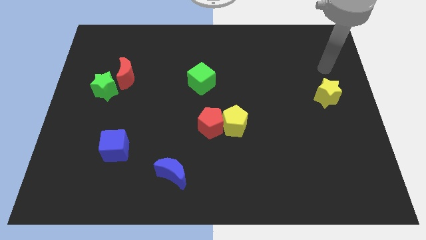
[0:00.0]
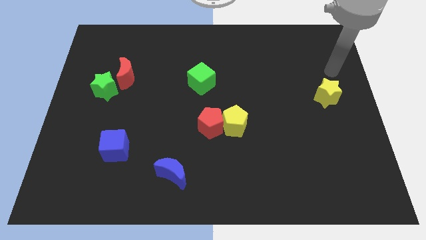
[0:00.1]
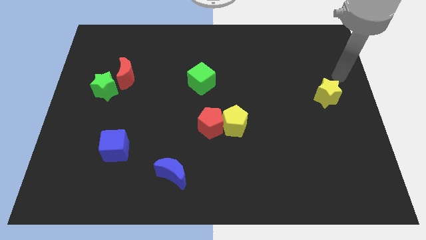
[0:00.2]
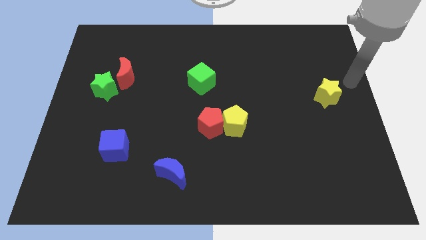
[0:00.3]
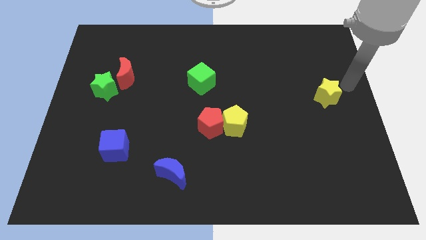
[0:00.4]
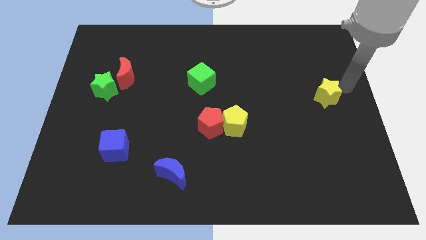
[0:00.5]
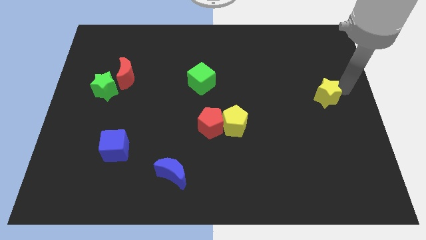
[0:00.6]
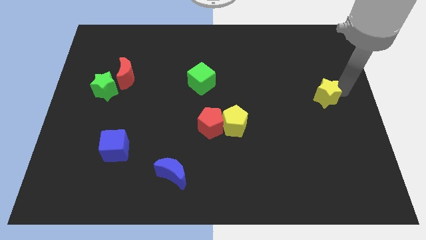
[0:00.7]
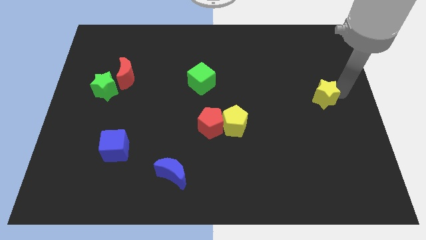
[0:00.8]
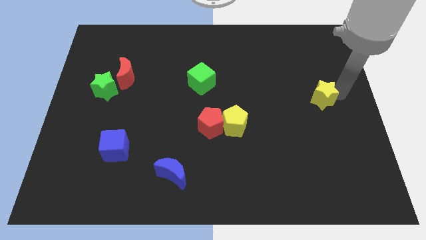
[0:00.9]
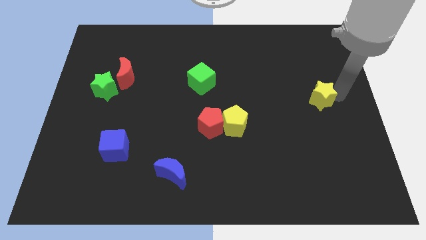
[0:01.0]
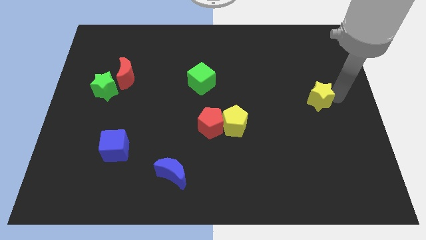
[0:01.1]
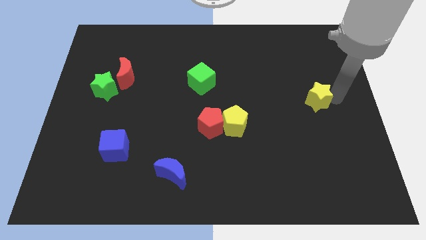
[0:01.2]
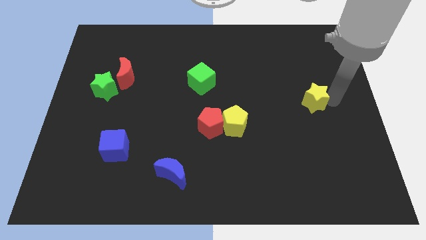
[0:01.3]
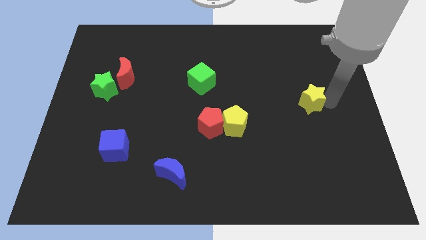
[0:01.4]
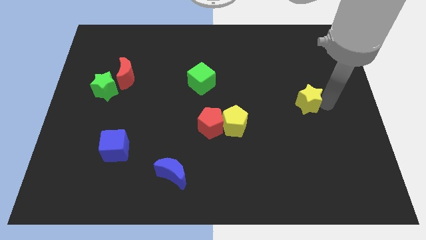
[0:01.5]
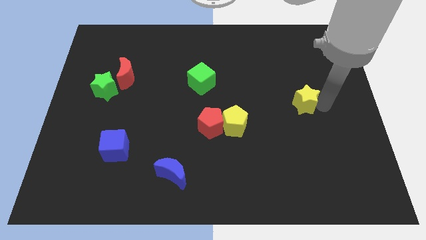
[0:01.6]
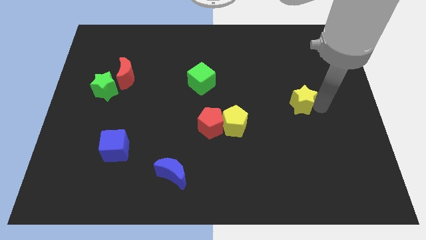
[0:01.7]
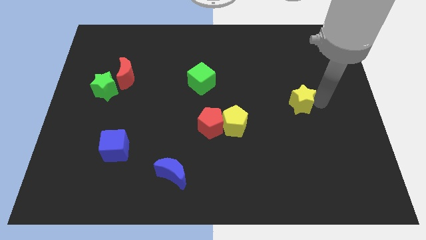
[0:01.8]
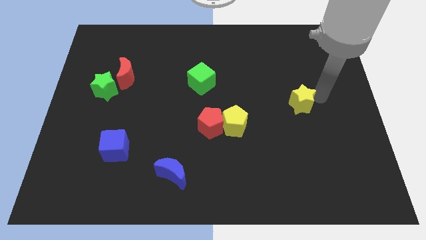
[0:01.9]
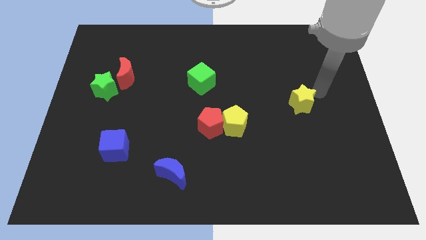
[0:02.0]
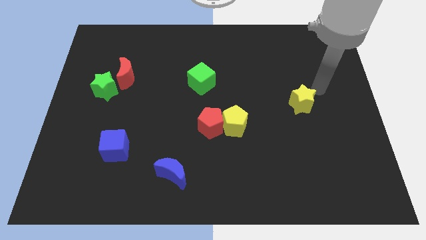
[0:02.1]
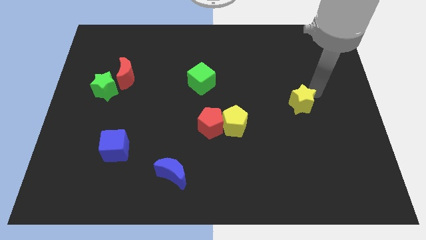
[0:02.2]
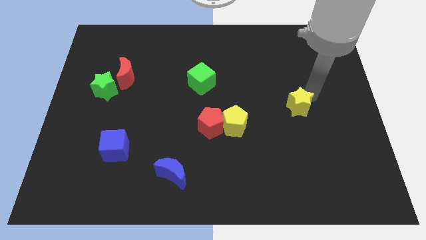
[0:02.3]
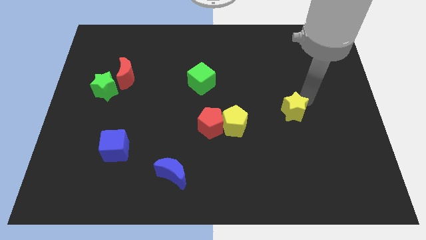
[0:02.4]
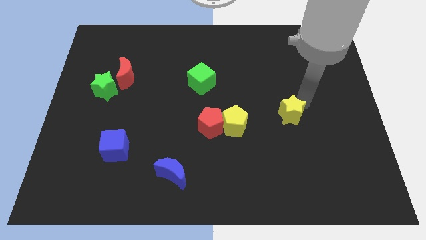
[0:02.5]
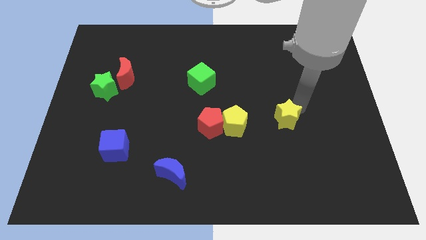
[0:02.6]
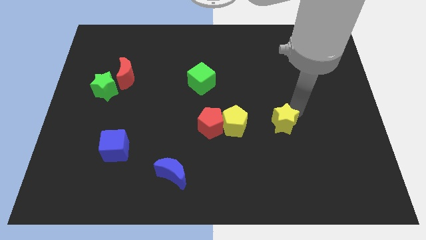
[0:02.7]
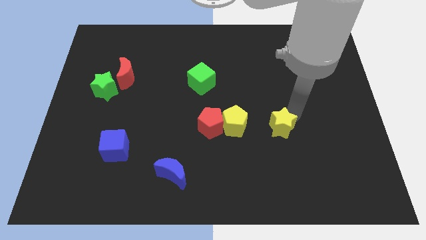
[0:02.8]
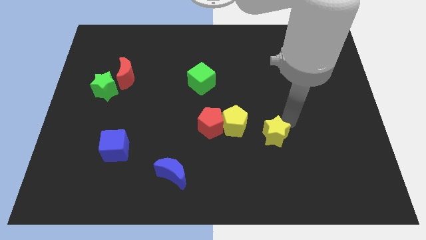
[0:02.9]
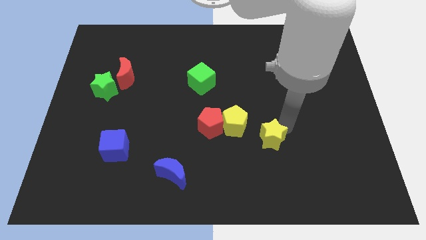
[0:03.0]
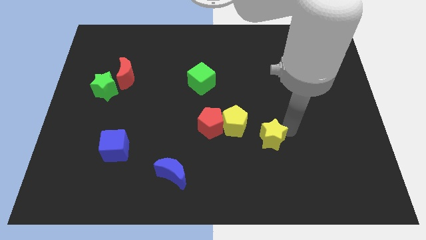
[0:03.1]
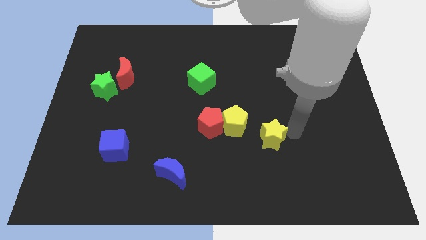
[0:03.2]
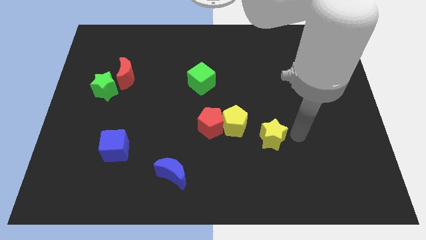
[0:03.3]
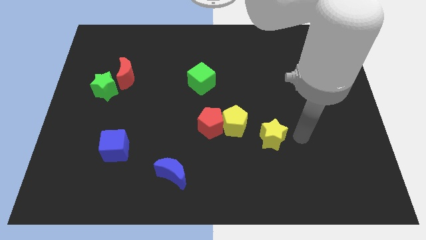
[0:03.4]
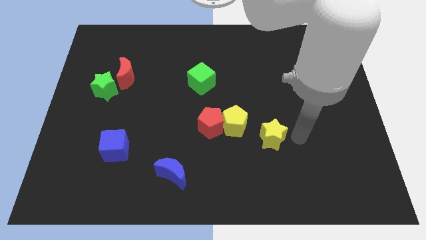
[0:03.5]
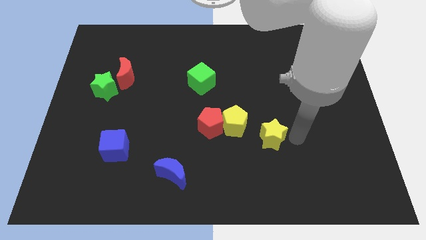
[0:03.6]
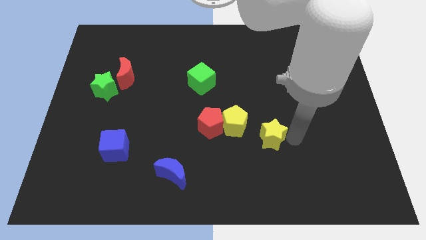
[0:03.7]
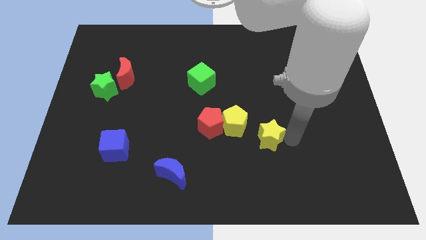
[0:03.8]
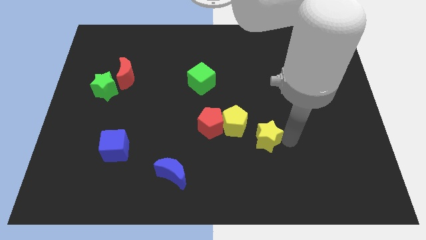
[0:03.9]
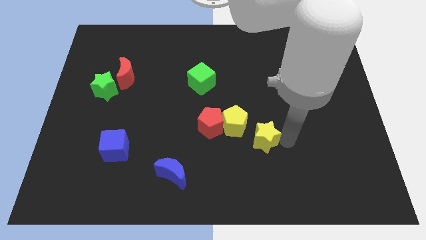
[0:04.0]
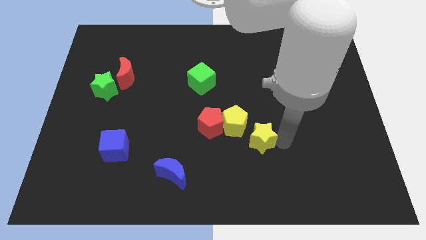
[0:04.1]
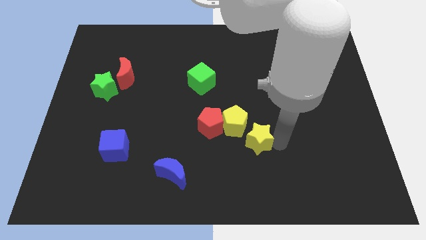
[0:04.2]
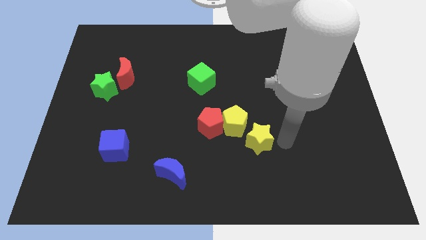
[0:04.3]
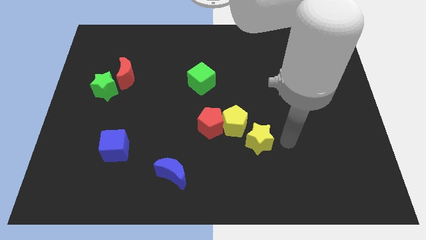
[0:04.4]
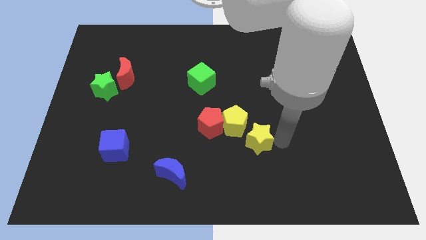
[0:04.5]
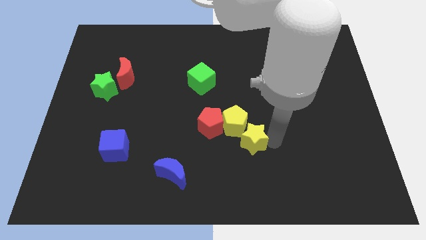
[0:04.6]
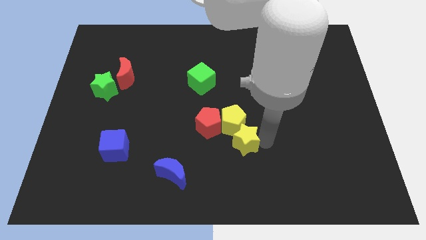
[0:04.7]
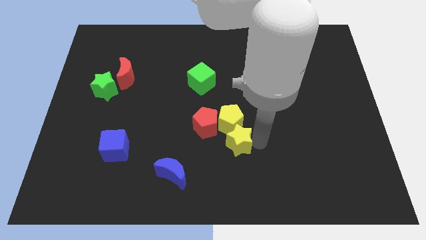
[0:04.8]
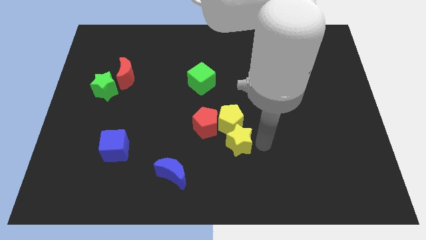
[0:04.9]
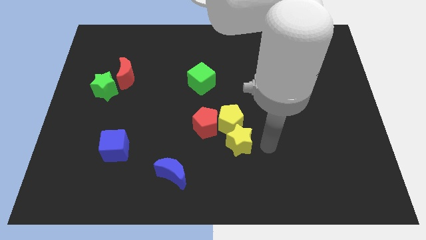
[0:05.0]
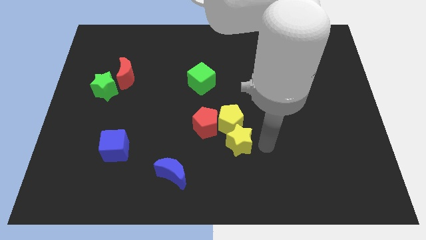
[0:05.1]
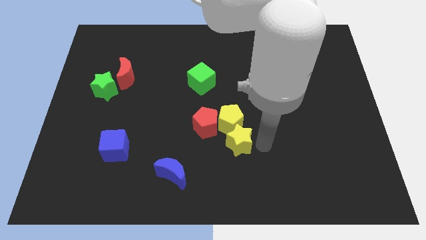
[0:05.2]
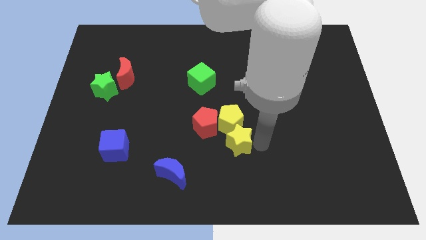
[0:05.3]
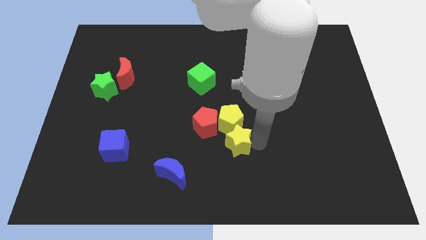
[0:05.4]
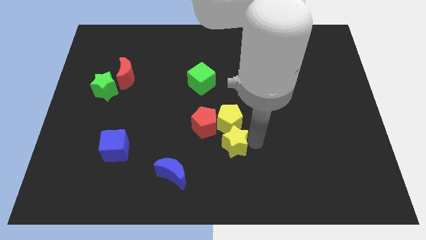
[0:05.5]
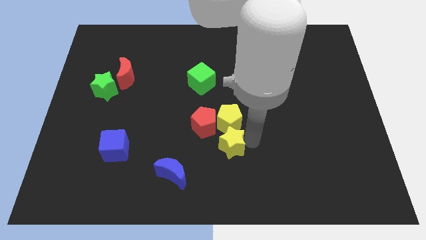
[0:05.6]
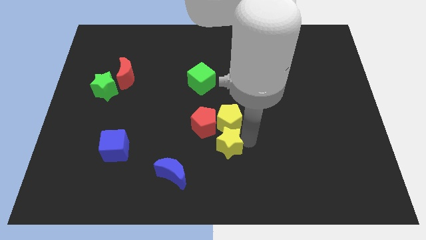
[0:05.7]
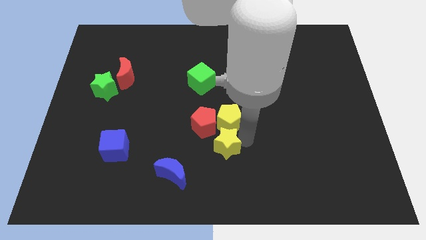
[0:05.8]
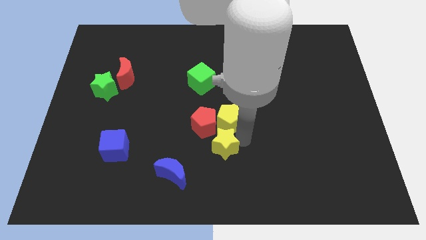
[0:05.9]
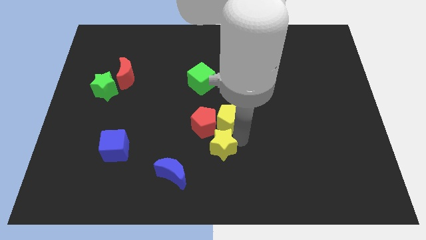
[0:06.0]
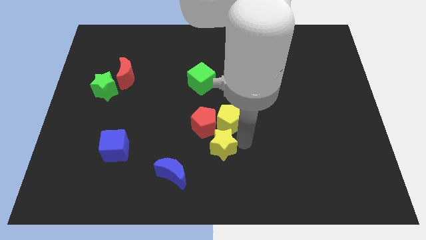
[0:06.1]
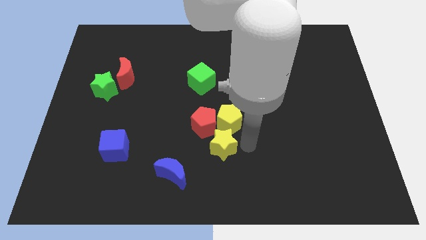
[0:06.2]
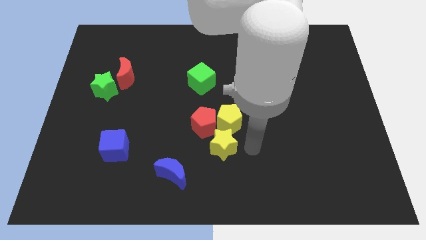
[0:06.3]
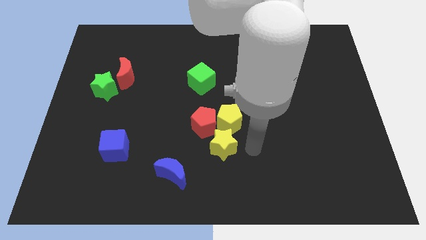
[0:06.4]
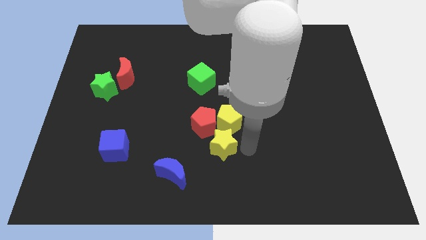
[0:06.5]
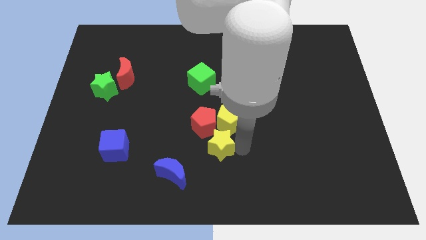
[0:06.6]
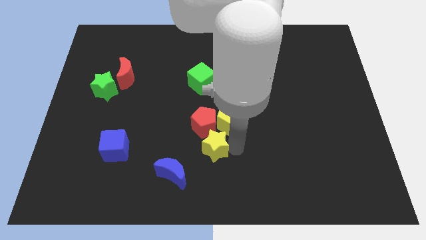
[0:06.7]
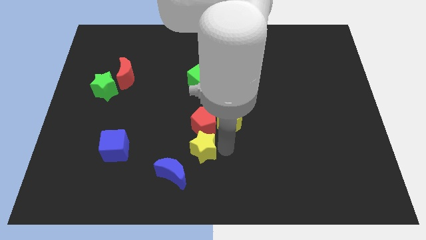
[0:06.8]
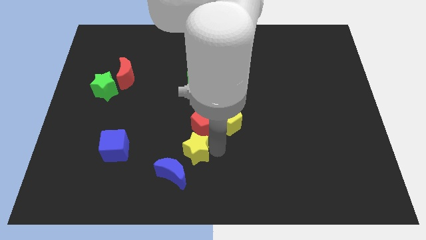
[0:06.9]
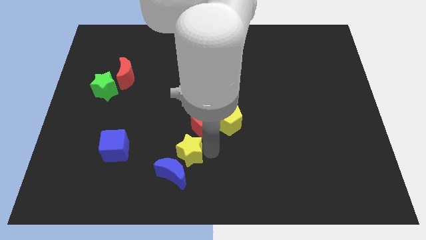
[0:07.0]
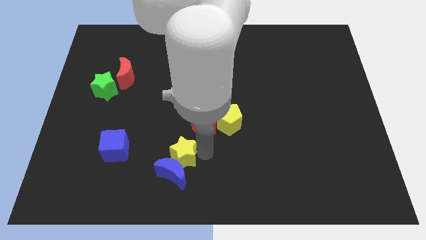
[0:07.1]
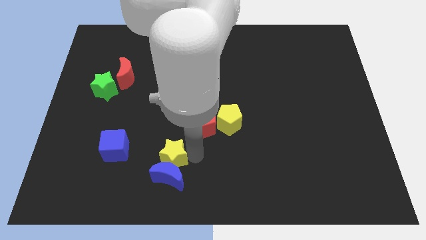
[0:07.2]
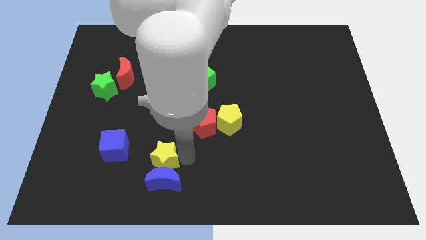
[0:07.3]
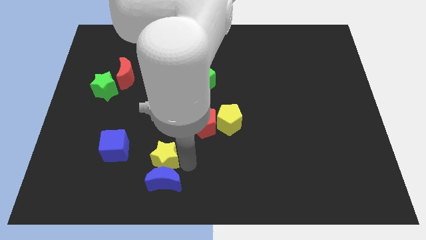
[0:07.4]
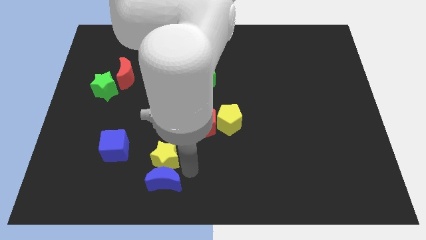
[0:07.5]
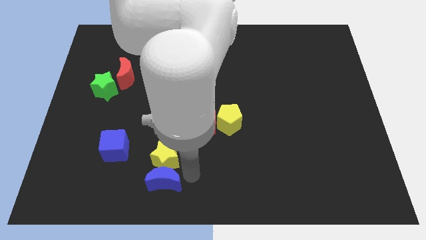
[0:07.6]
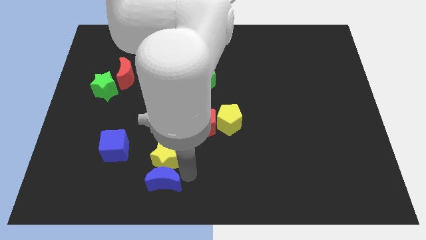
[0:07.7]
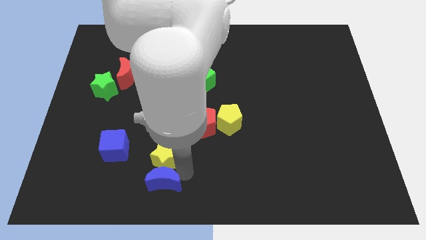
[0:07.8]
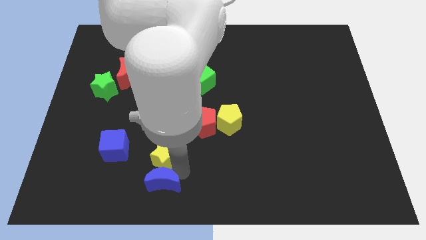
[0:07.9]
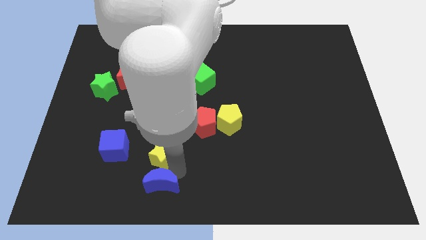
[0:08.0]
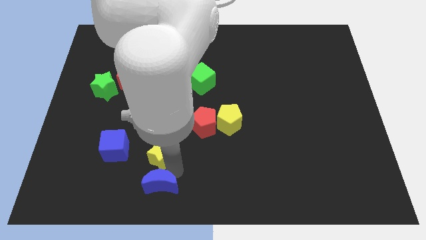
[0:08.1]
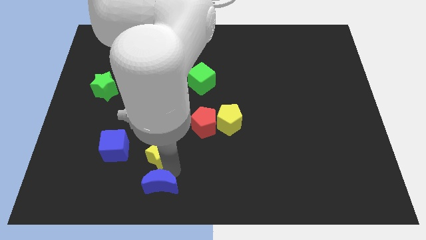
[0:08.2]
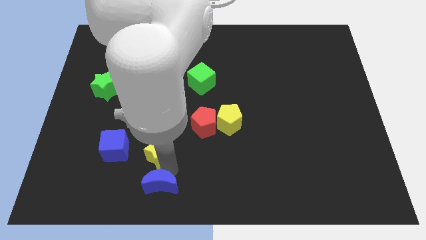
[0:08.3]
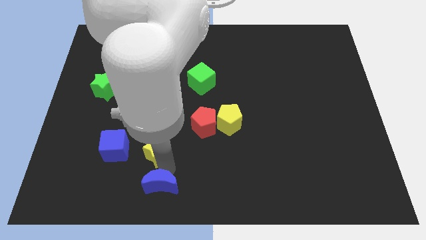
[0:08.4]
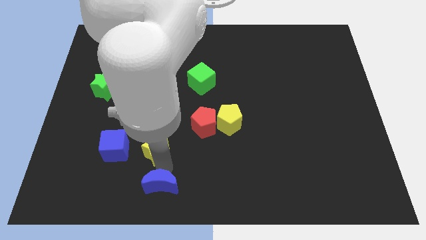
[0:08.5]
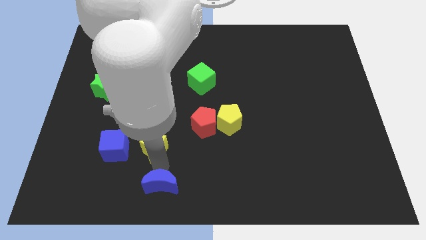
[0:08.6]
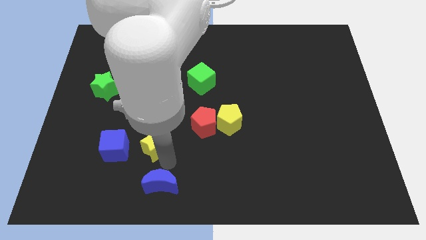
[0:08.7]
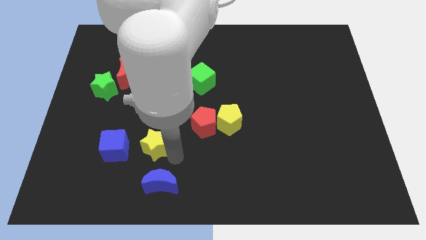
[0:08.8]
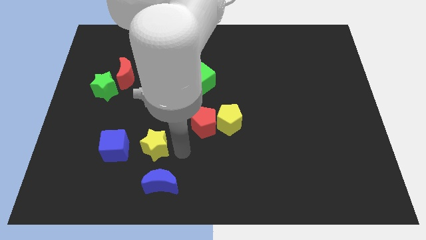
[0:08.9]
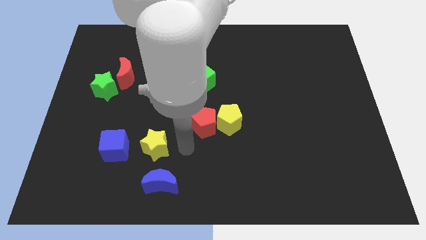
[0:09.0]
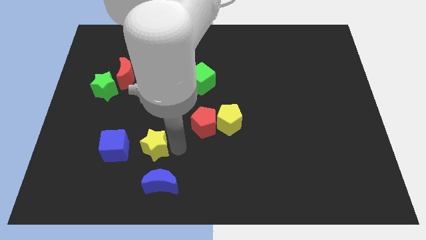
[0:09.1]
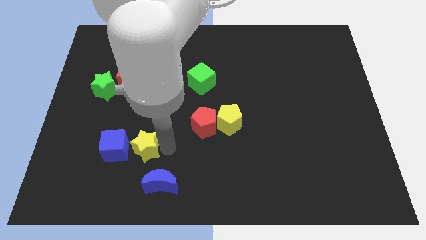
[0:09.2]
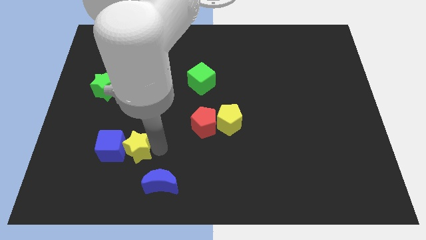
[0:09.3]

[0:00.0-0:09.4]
slide the yellow star to the blue cube
